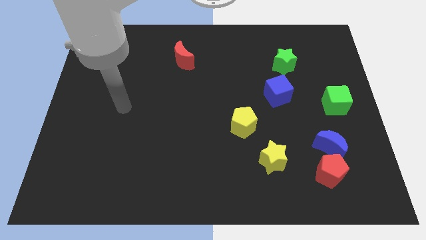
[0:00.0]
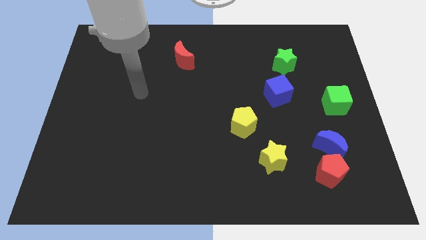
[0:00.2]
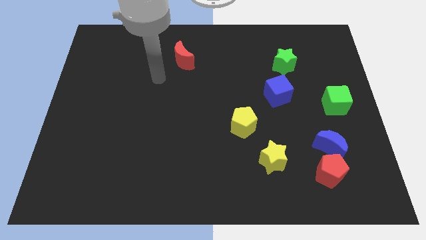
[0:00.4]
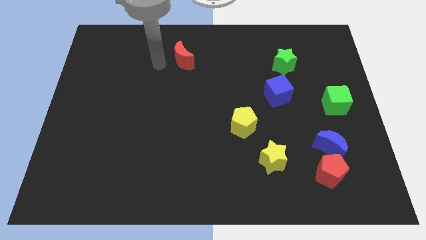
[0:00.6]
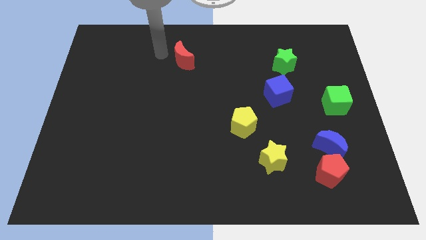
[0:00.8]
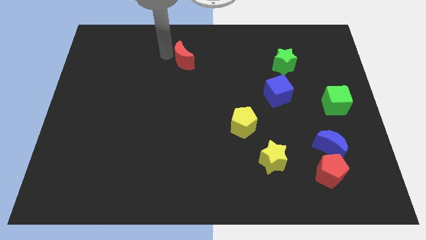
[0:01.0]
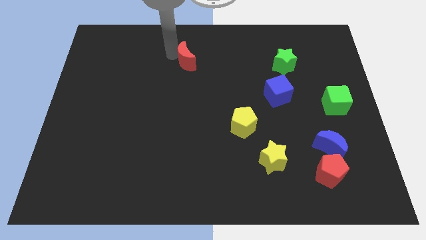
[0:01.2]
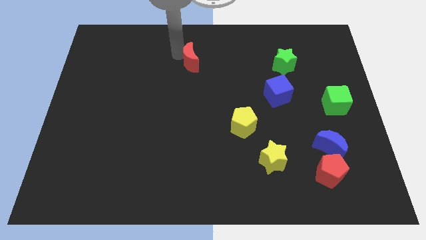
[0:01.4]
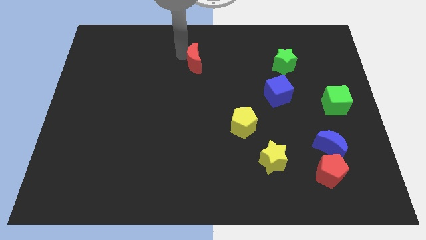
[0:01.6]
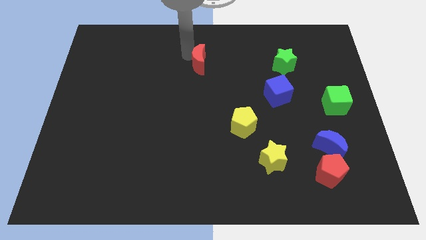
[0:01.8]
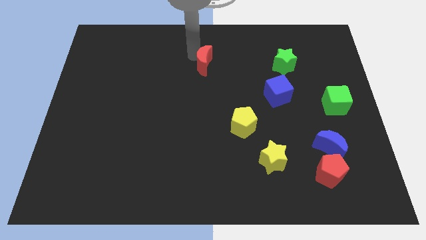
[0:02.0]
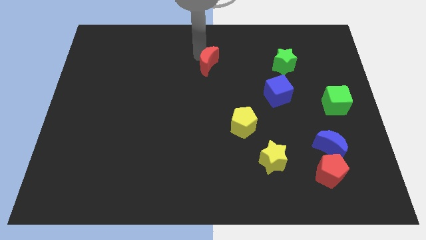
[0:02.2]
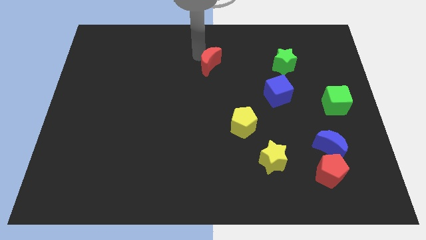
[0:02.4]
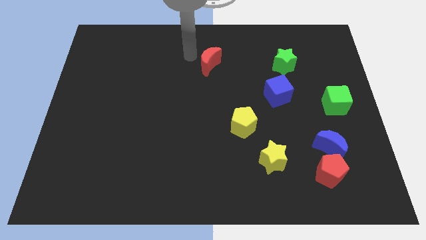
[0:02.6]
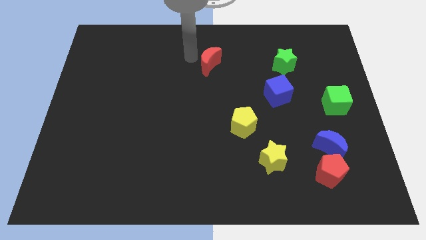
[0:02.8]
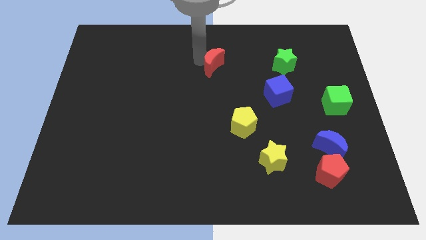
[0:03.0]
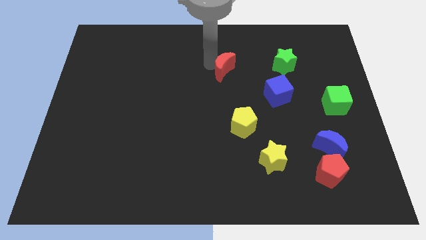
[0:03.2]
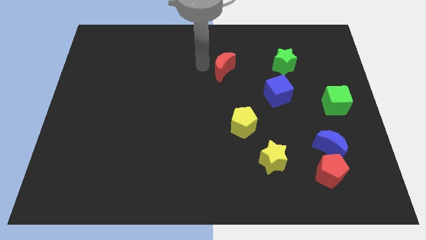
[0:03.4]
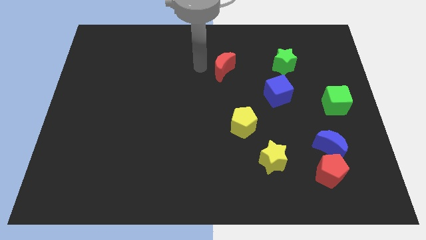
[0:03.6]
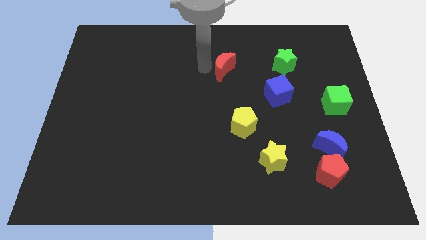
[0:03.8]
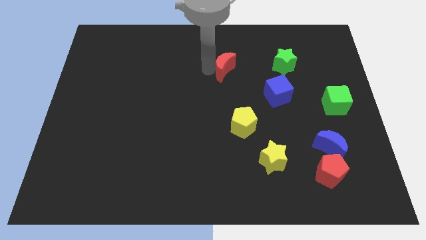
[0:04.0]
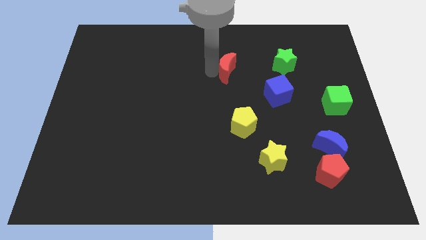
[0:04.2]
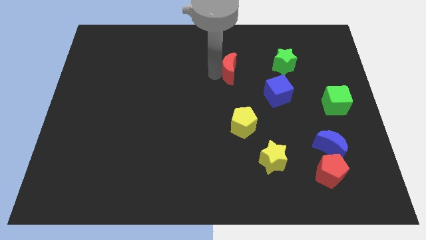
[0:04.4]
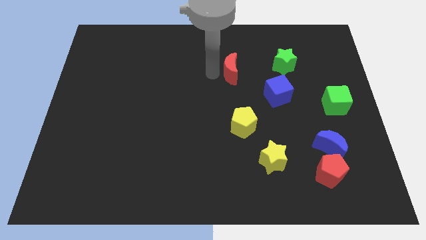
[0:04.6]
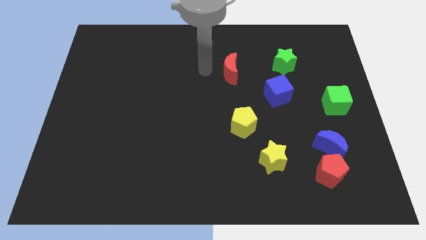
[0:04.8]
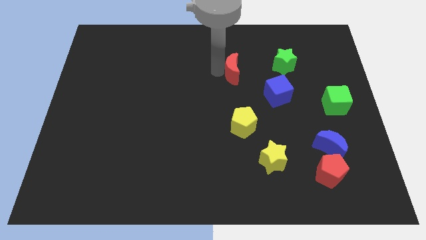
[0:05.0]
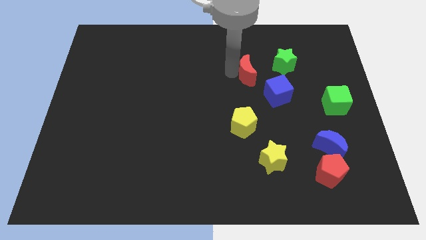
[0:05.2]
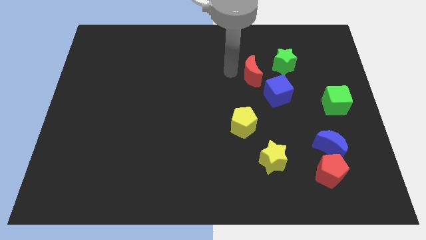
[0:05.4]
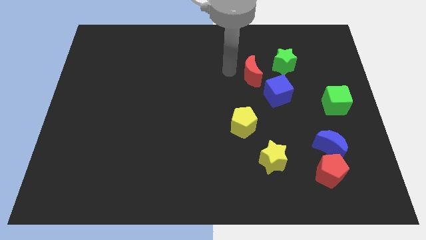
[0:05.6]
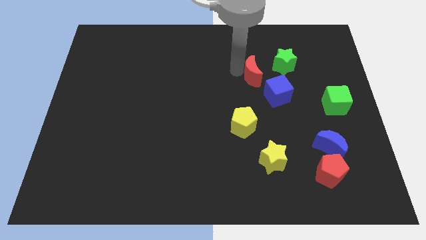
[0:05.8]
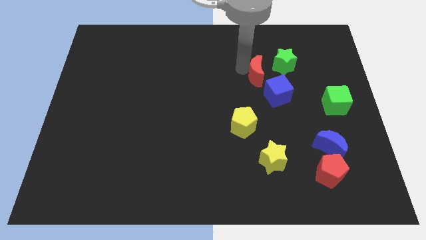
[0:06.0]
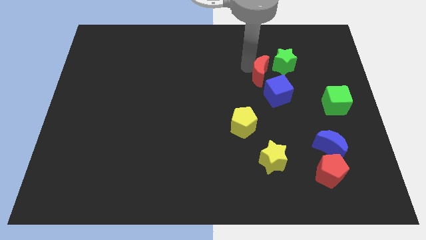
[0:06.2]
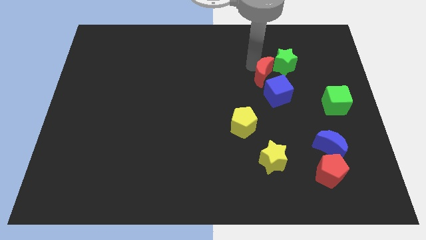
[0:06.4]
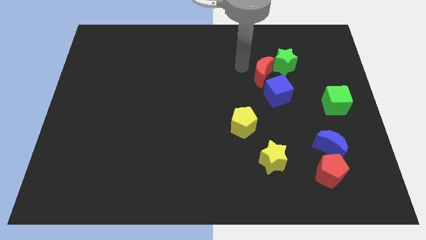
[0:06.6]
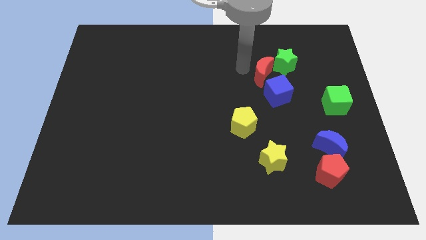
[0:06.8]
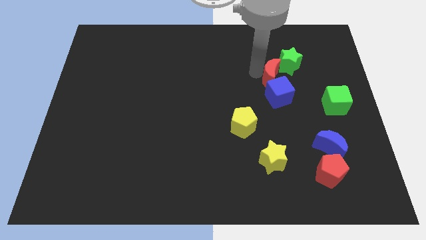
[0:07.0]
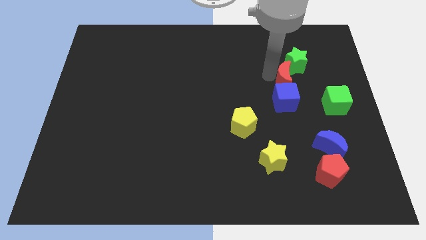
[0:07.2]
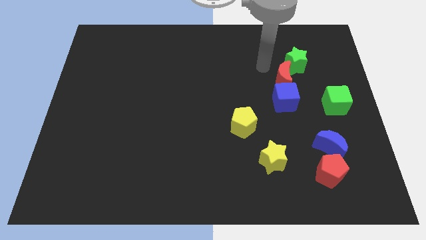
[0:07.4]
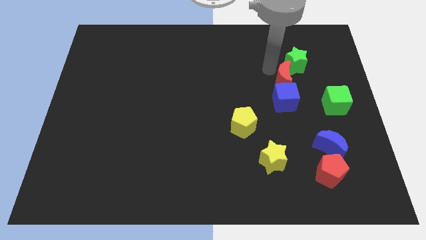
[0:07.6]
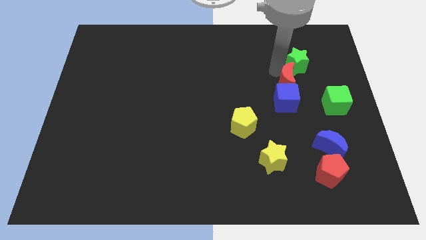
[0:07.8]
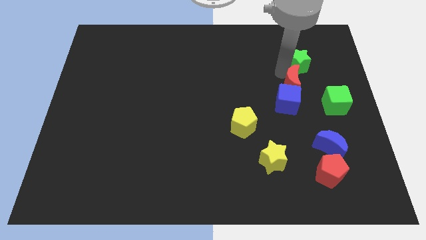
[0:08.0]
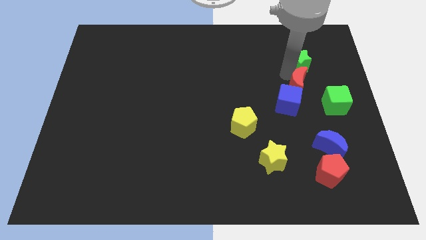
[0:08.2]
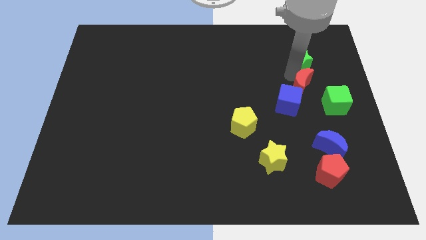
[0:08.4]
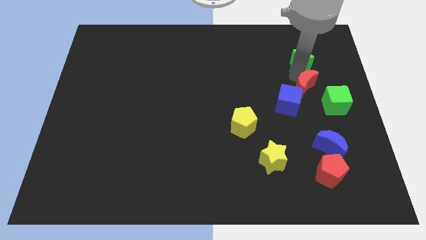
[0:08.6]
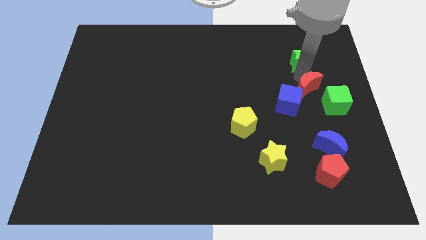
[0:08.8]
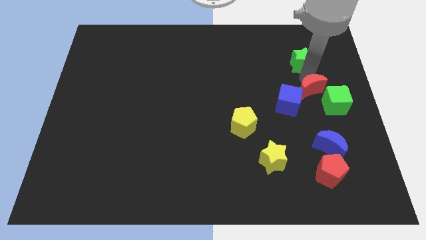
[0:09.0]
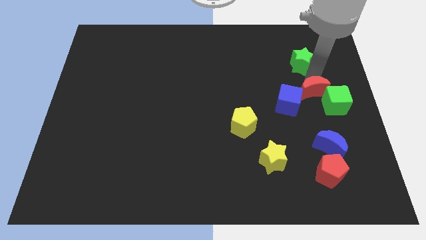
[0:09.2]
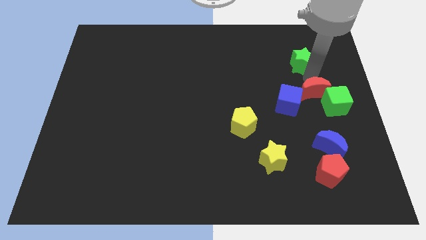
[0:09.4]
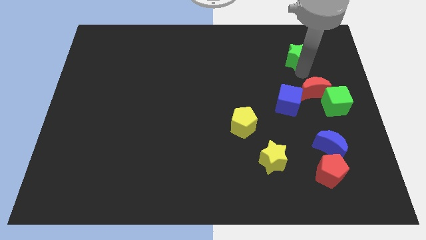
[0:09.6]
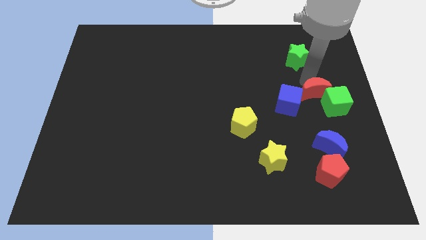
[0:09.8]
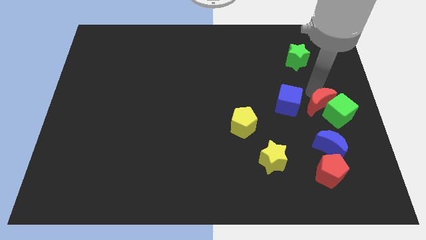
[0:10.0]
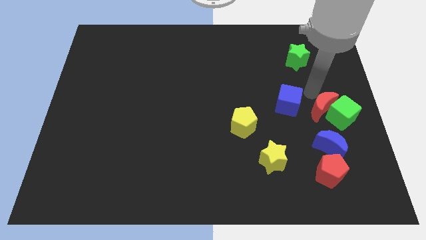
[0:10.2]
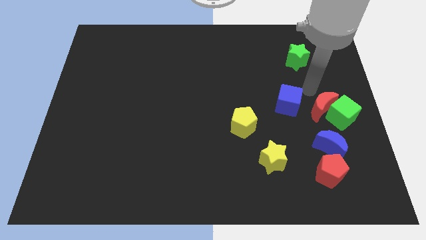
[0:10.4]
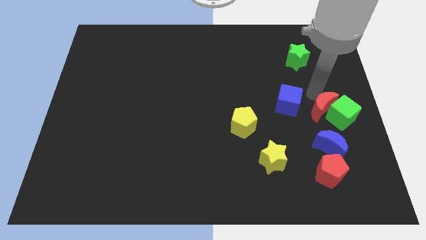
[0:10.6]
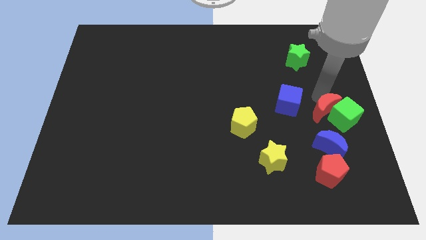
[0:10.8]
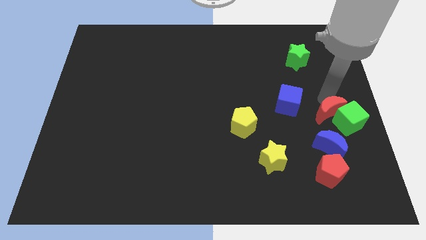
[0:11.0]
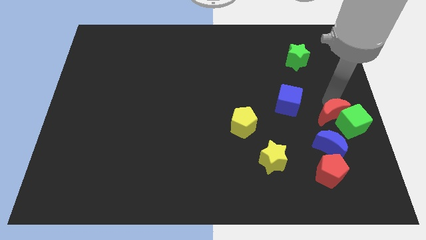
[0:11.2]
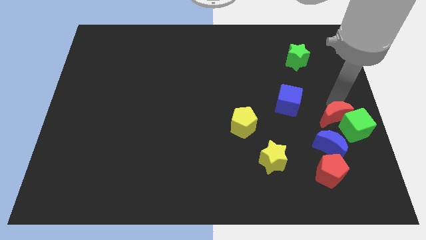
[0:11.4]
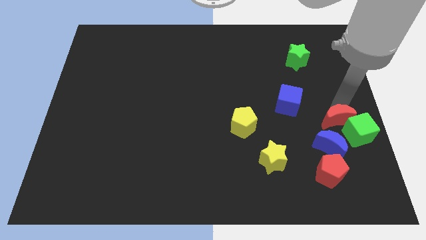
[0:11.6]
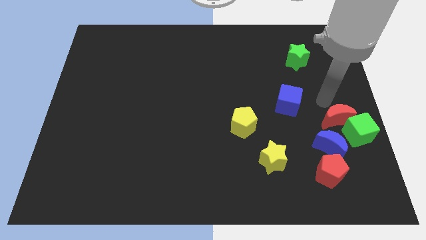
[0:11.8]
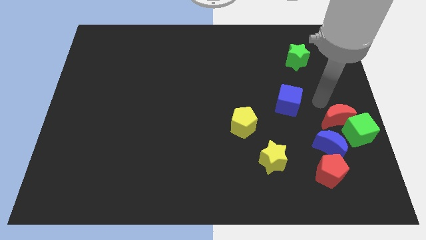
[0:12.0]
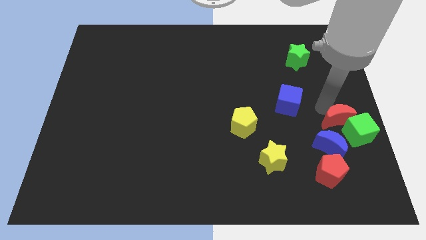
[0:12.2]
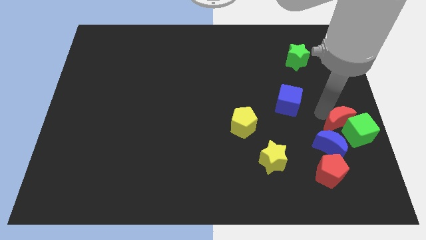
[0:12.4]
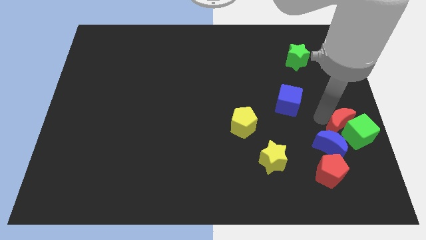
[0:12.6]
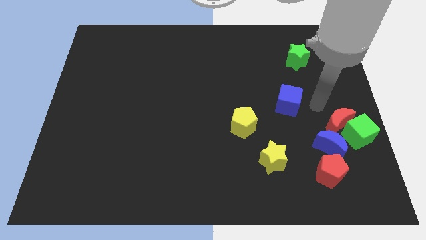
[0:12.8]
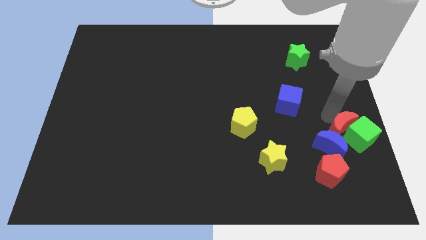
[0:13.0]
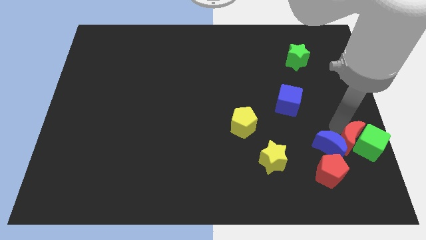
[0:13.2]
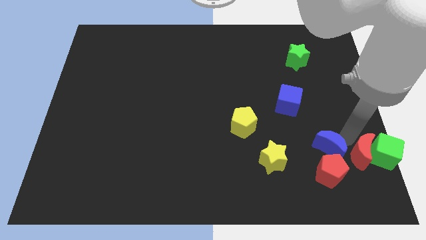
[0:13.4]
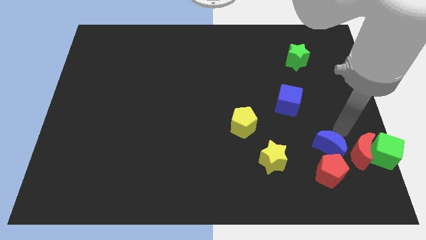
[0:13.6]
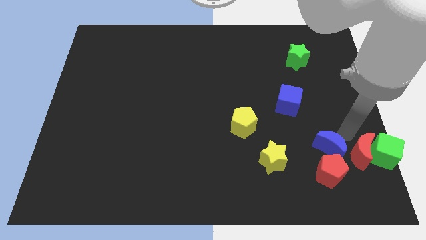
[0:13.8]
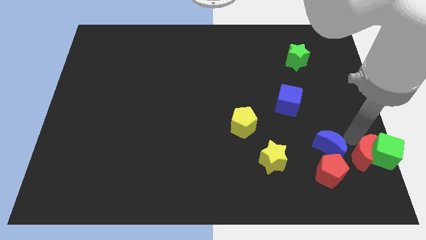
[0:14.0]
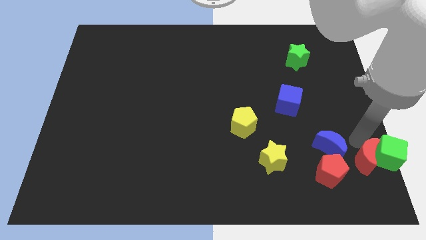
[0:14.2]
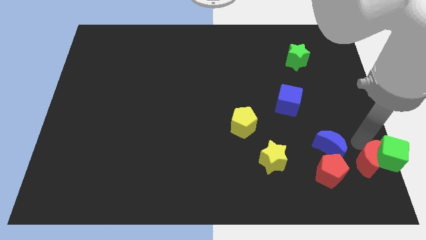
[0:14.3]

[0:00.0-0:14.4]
move the red moon to the bottom right corner
